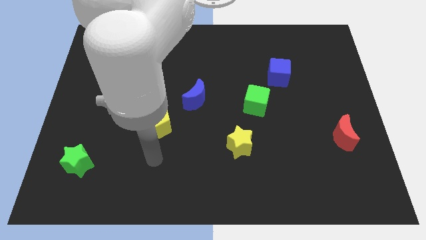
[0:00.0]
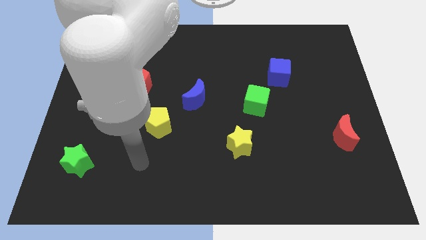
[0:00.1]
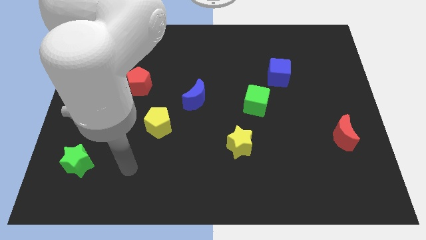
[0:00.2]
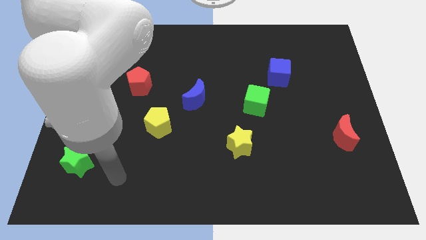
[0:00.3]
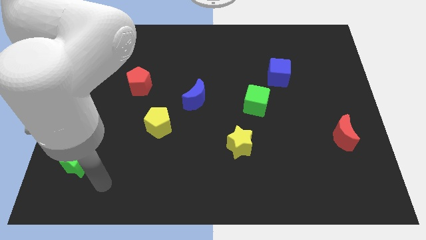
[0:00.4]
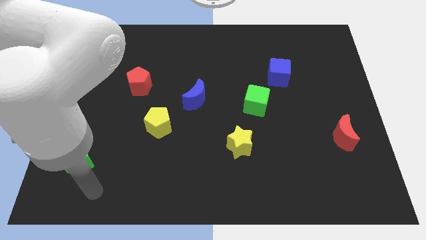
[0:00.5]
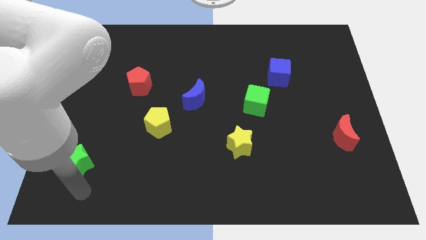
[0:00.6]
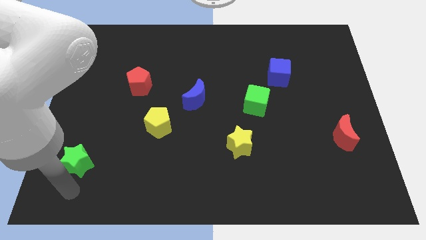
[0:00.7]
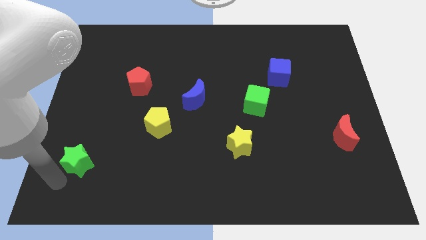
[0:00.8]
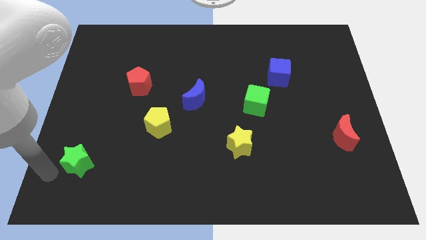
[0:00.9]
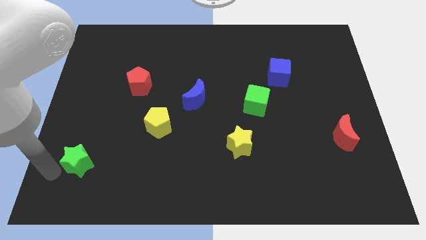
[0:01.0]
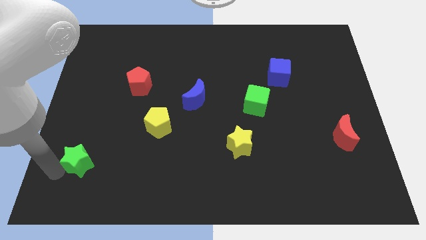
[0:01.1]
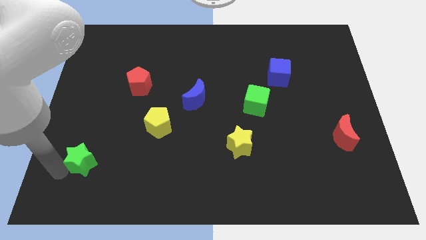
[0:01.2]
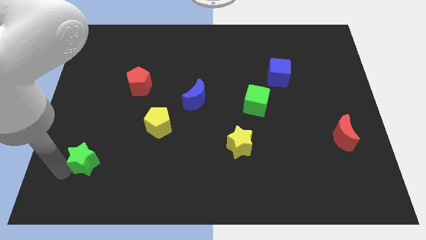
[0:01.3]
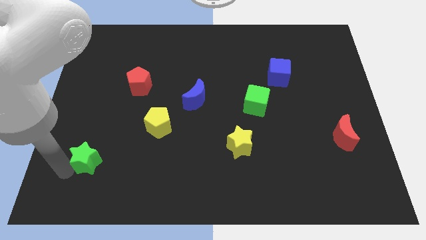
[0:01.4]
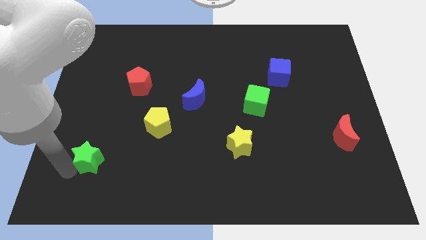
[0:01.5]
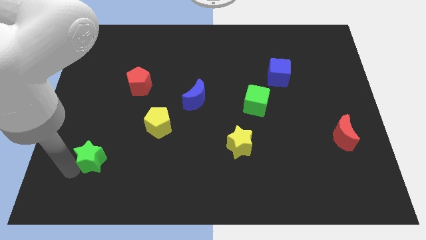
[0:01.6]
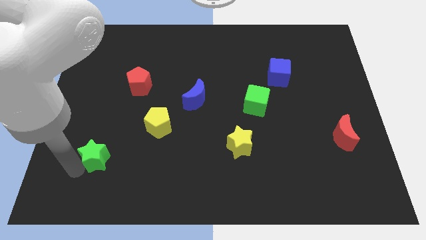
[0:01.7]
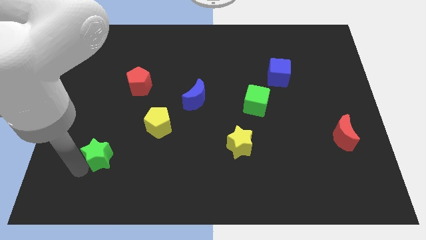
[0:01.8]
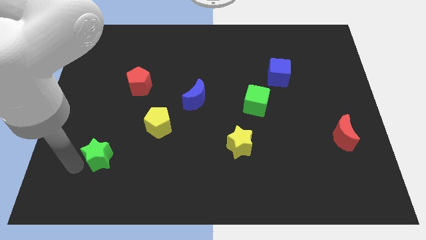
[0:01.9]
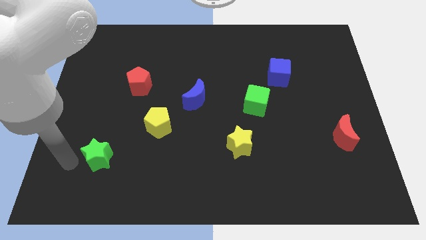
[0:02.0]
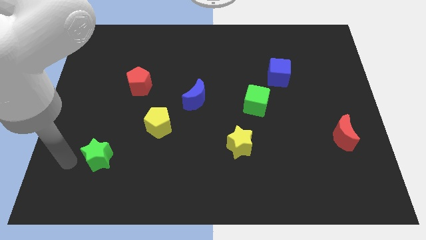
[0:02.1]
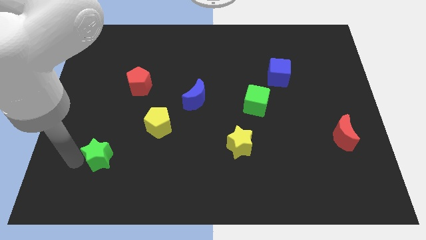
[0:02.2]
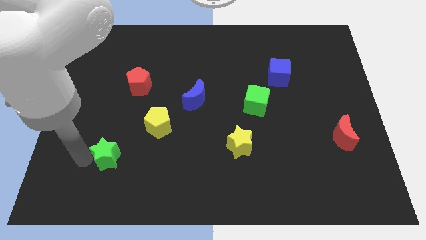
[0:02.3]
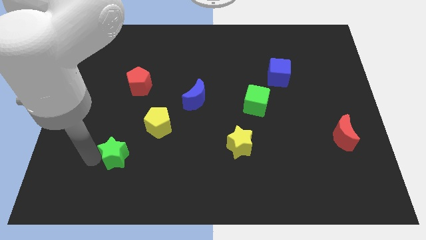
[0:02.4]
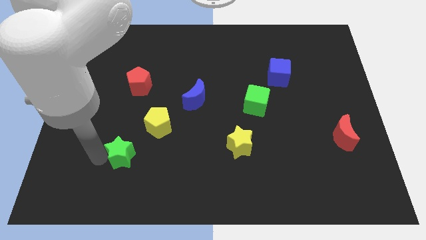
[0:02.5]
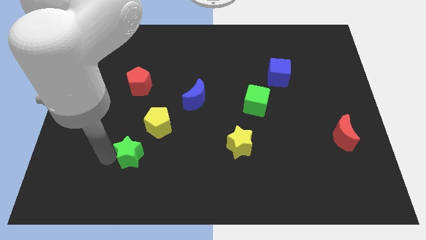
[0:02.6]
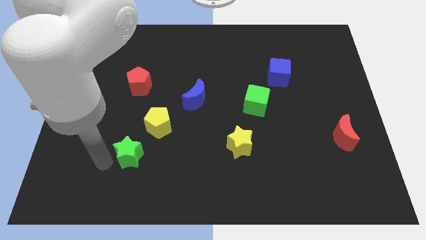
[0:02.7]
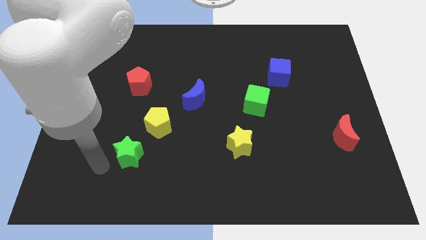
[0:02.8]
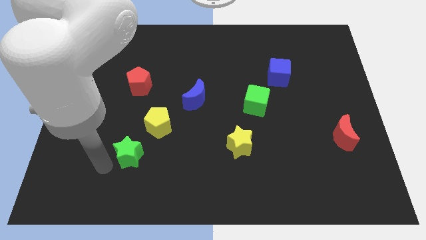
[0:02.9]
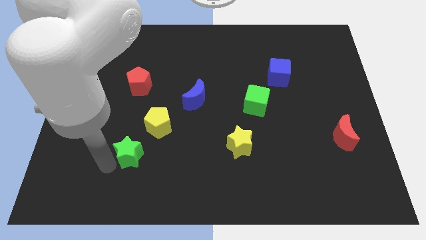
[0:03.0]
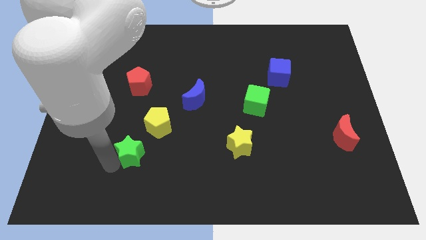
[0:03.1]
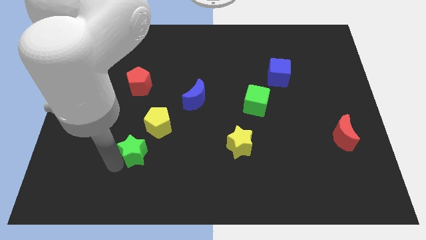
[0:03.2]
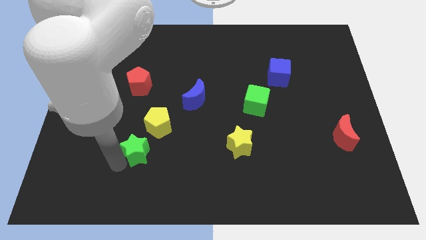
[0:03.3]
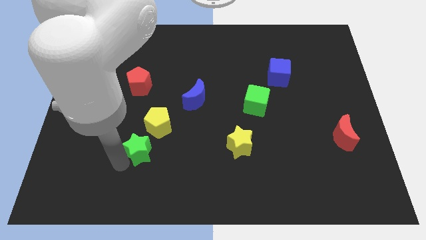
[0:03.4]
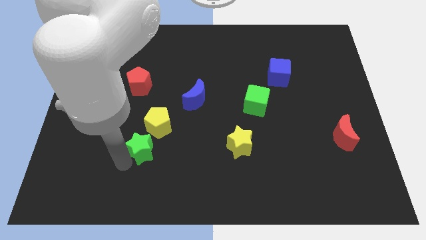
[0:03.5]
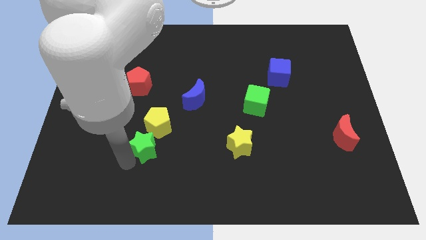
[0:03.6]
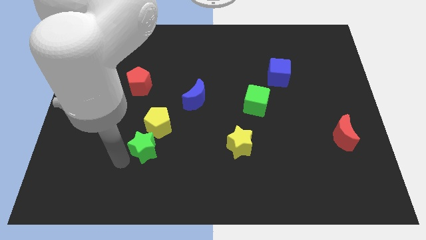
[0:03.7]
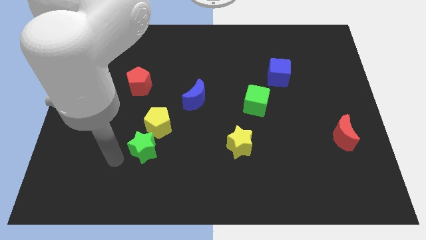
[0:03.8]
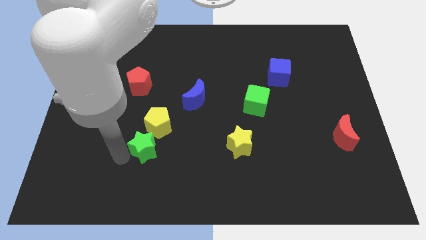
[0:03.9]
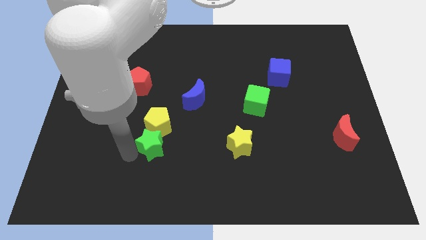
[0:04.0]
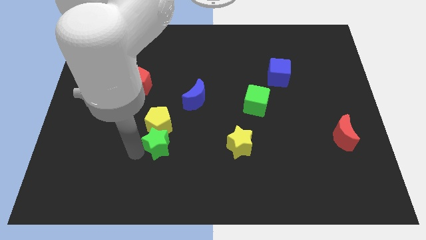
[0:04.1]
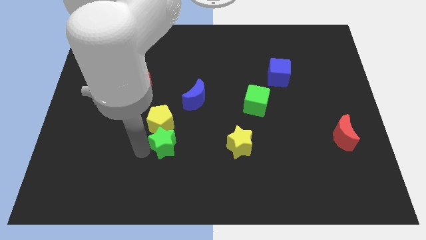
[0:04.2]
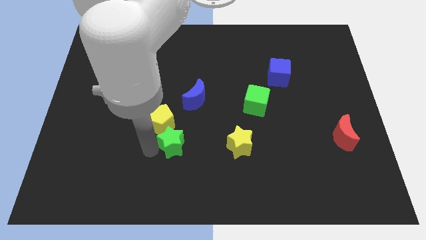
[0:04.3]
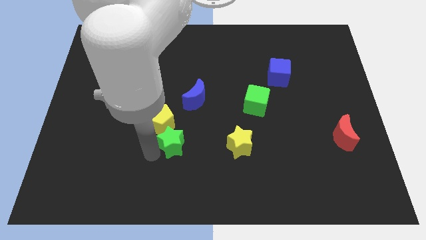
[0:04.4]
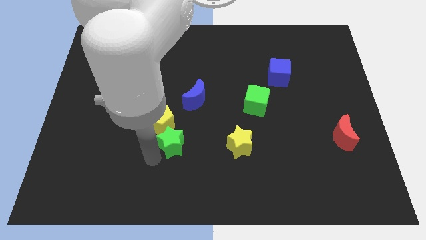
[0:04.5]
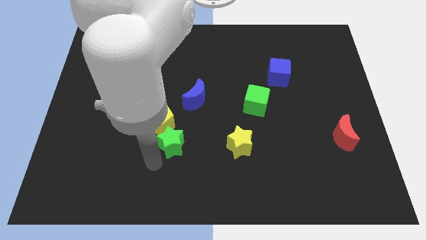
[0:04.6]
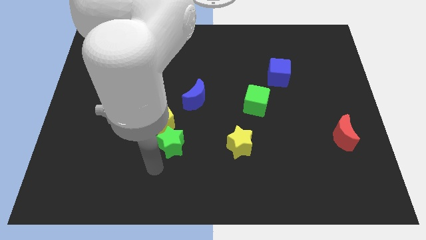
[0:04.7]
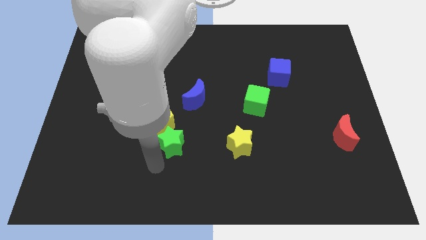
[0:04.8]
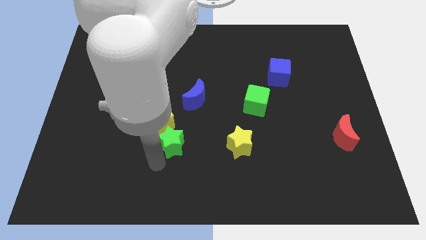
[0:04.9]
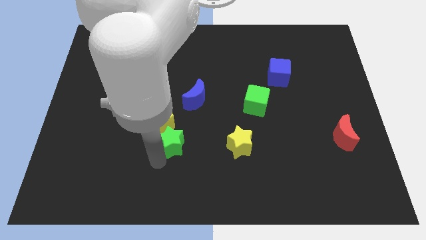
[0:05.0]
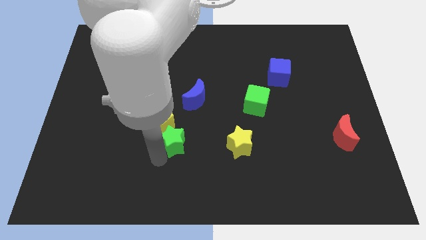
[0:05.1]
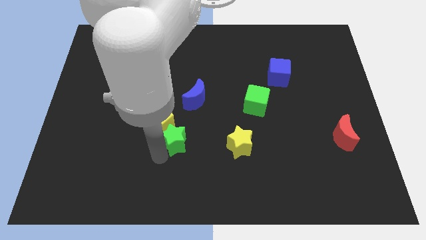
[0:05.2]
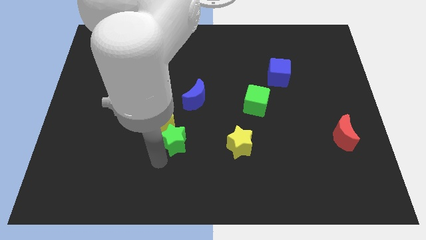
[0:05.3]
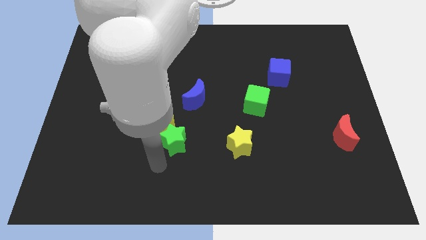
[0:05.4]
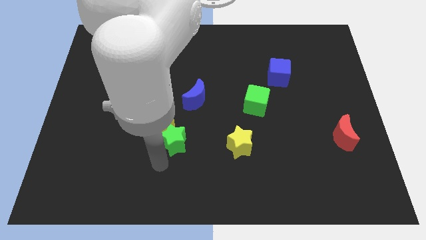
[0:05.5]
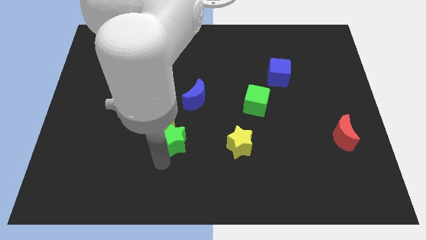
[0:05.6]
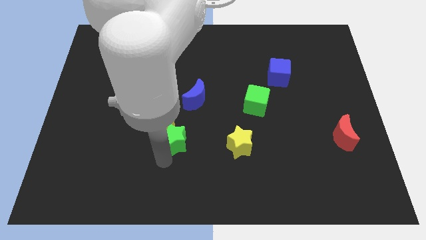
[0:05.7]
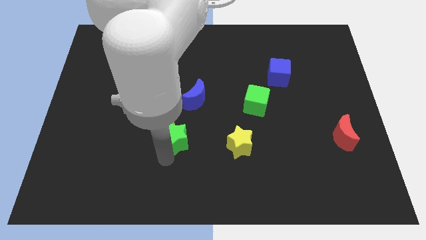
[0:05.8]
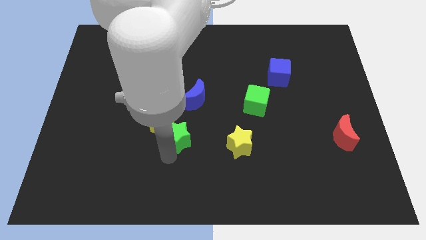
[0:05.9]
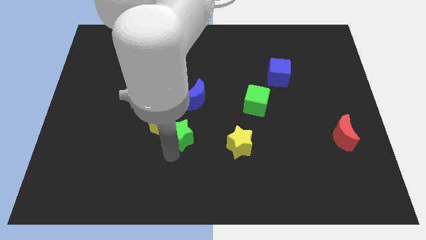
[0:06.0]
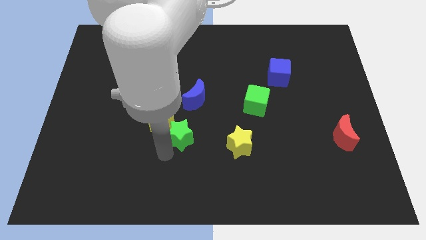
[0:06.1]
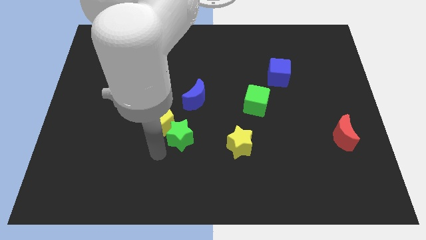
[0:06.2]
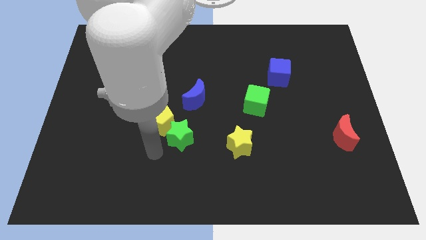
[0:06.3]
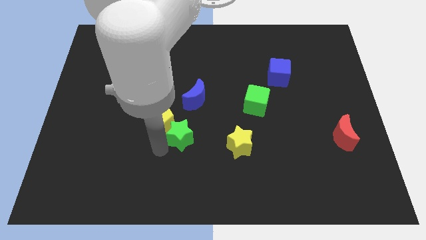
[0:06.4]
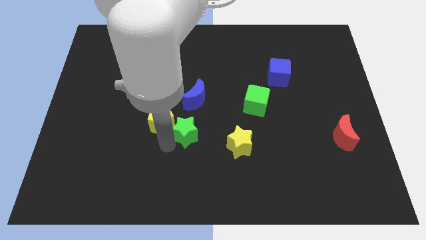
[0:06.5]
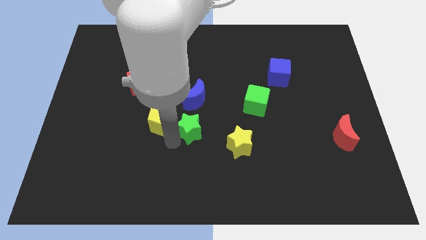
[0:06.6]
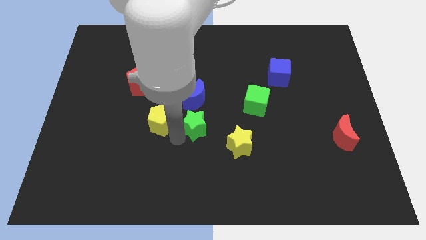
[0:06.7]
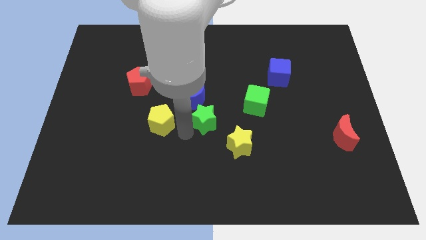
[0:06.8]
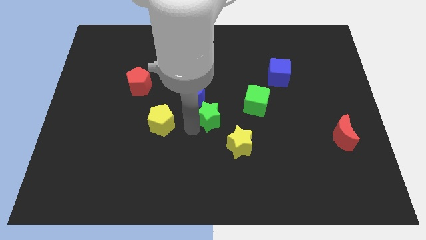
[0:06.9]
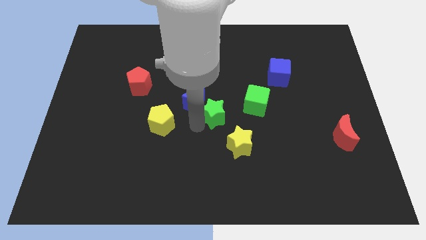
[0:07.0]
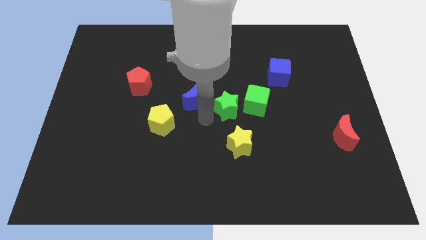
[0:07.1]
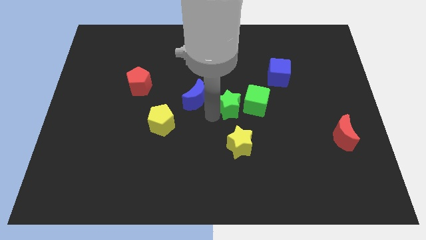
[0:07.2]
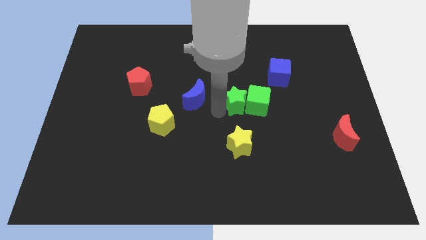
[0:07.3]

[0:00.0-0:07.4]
put the green star to the green cube
